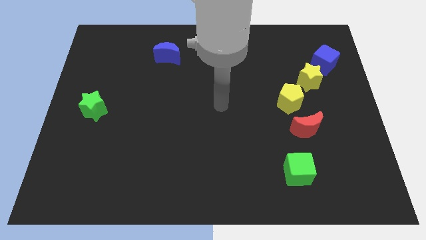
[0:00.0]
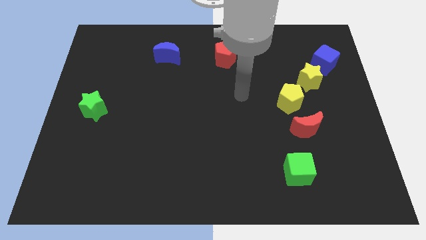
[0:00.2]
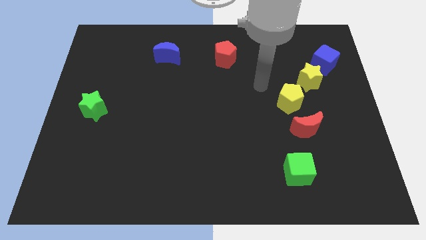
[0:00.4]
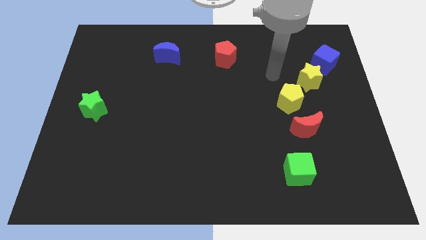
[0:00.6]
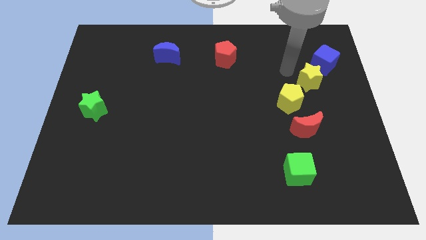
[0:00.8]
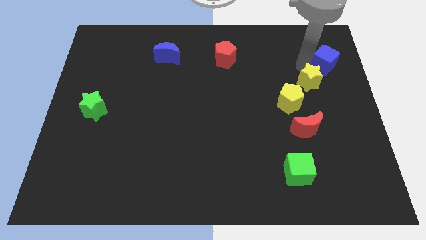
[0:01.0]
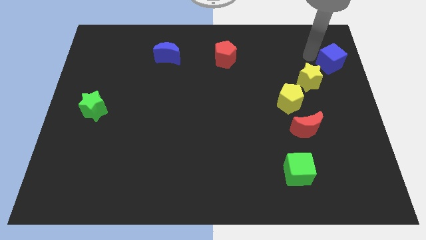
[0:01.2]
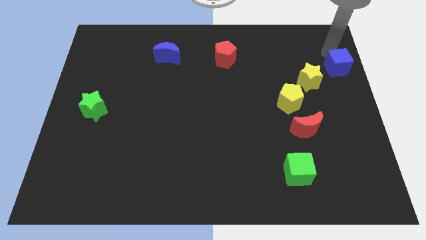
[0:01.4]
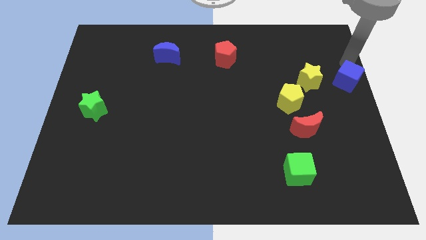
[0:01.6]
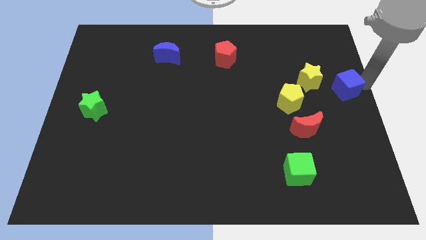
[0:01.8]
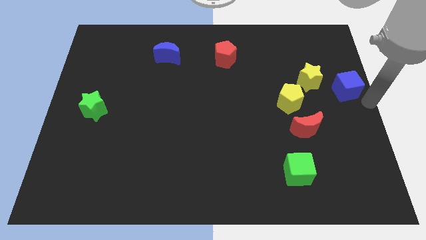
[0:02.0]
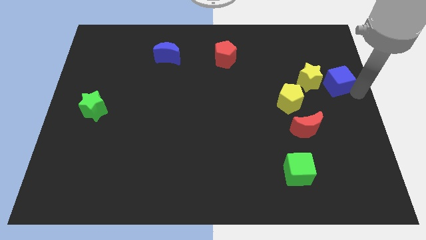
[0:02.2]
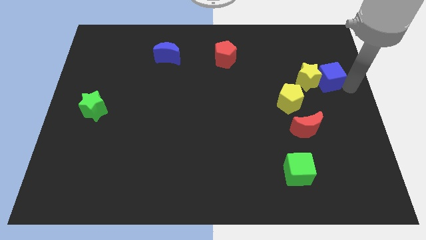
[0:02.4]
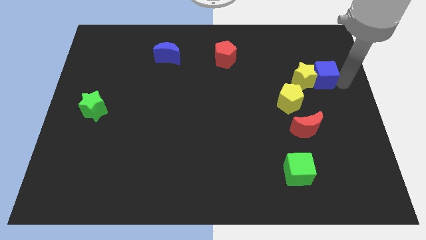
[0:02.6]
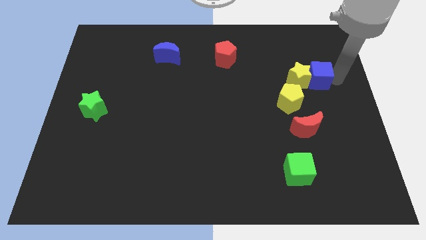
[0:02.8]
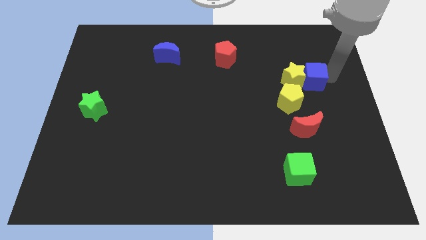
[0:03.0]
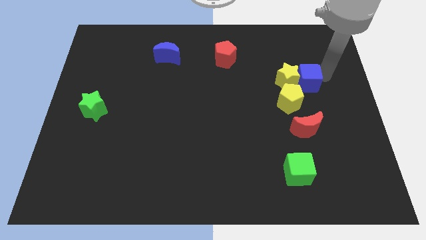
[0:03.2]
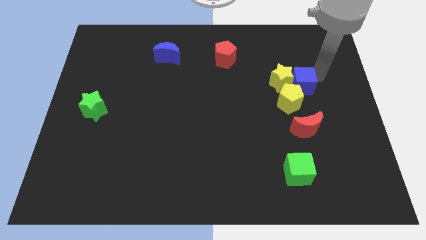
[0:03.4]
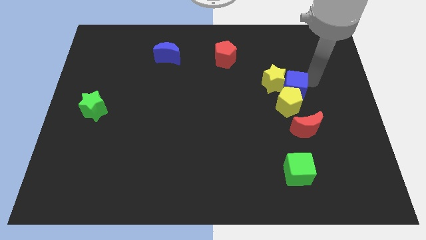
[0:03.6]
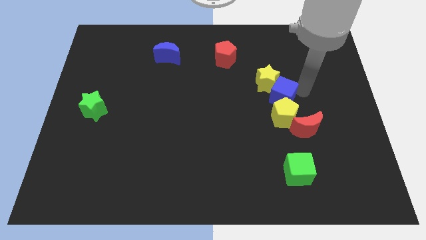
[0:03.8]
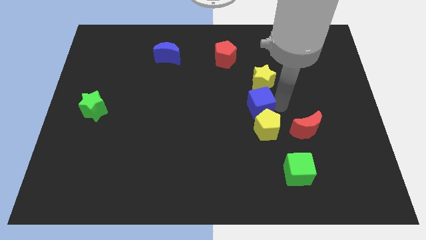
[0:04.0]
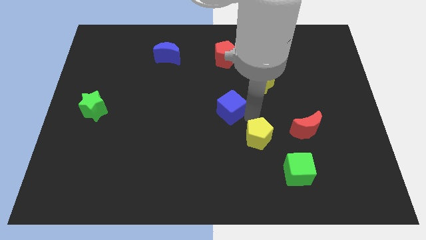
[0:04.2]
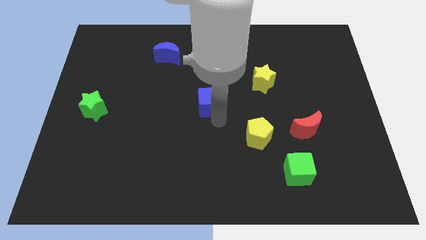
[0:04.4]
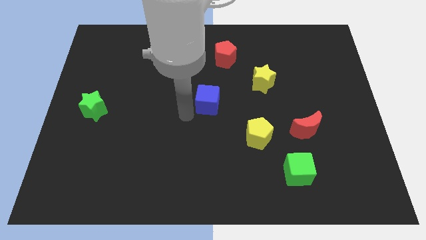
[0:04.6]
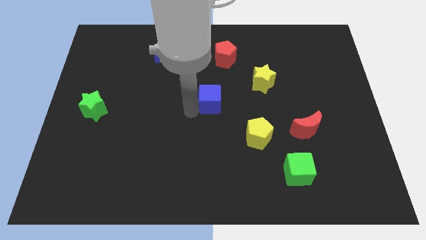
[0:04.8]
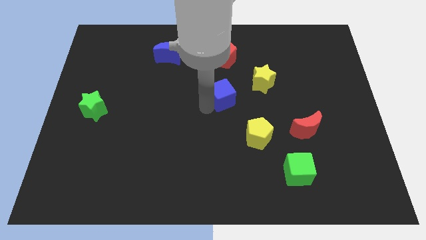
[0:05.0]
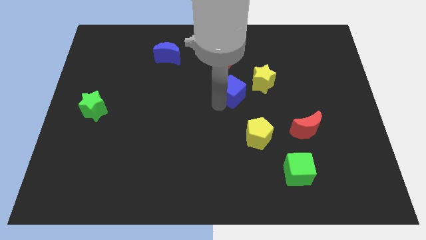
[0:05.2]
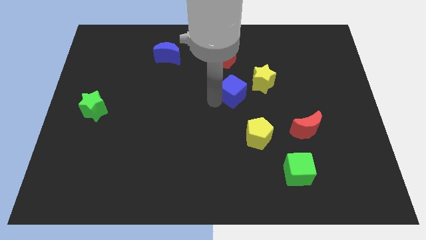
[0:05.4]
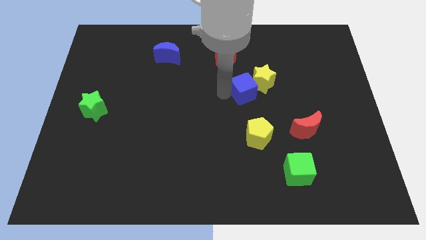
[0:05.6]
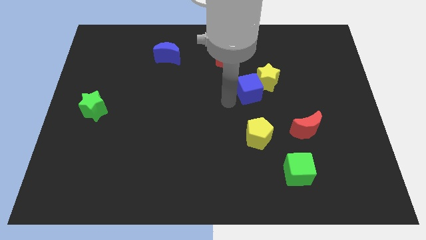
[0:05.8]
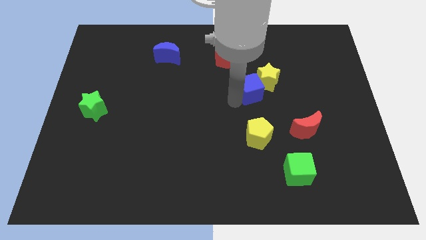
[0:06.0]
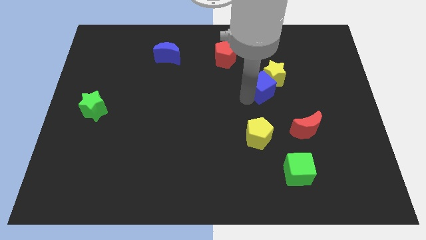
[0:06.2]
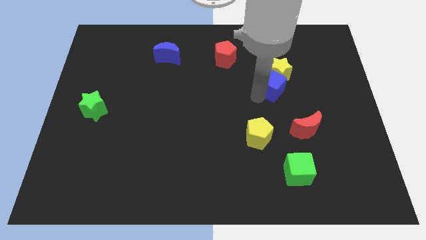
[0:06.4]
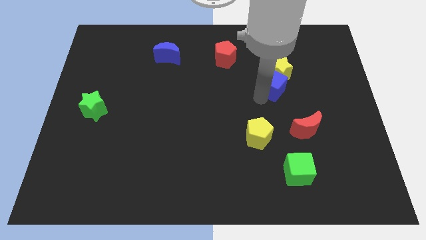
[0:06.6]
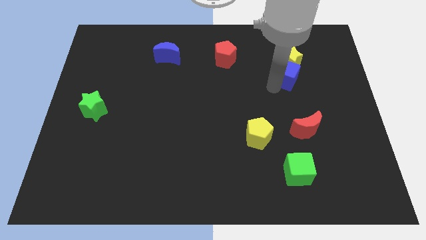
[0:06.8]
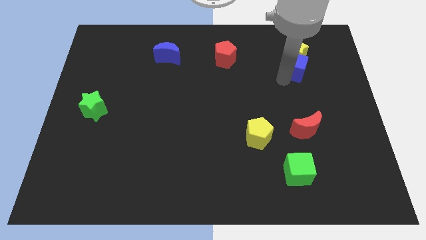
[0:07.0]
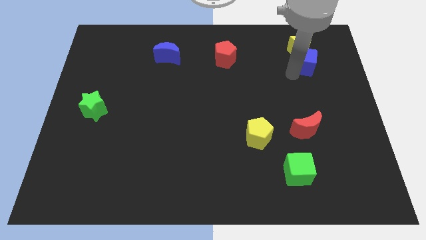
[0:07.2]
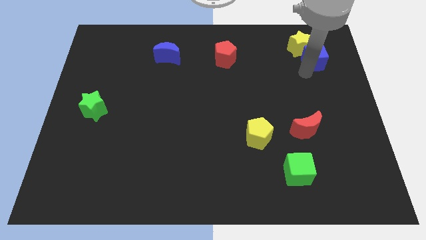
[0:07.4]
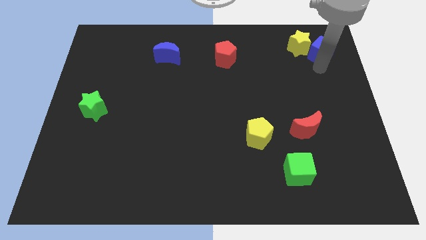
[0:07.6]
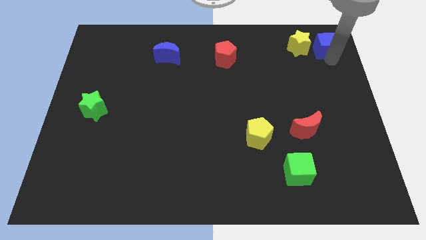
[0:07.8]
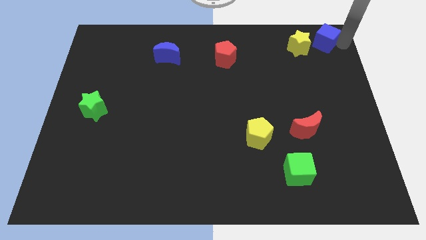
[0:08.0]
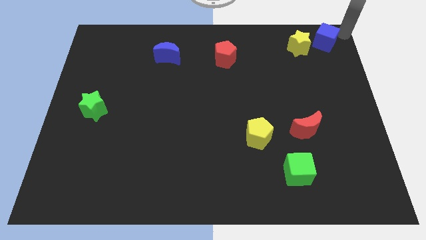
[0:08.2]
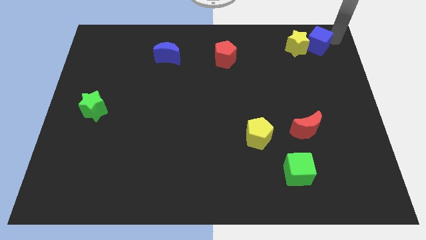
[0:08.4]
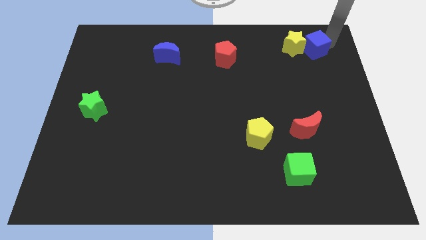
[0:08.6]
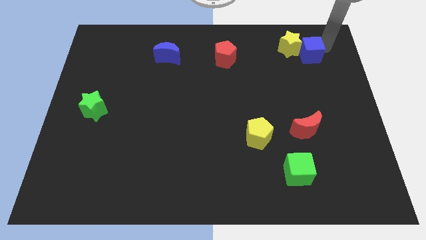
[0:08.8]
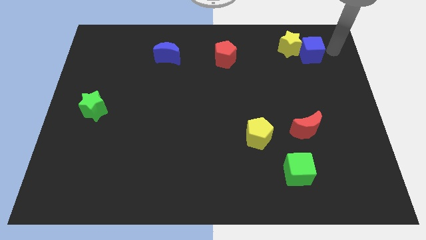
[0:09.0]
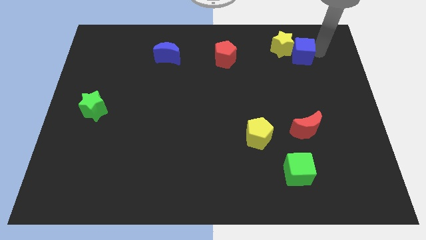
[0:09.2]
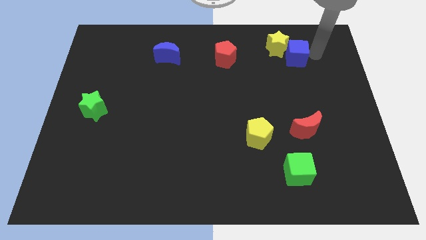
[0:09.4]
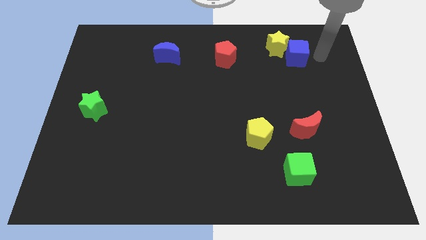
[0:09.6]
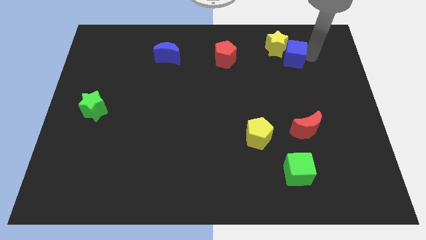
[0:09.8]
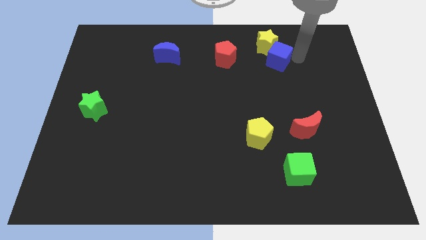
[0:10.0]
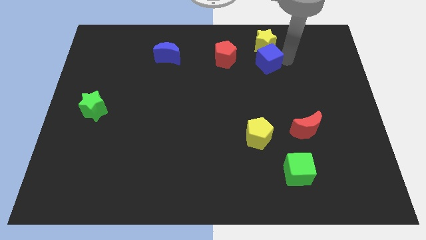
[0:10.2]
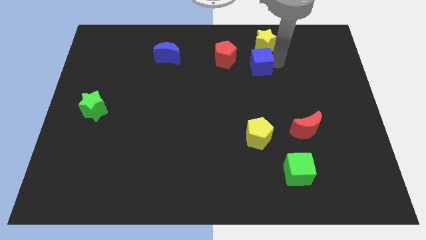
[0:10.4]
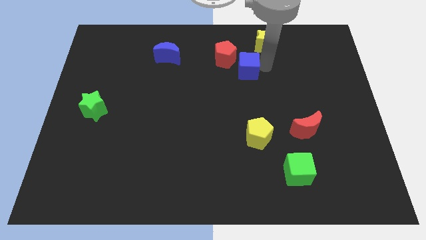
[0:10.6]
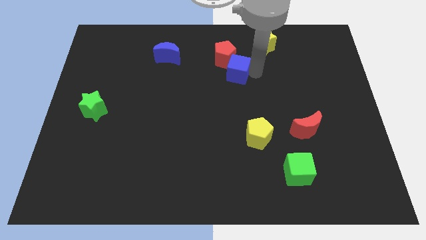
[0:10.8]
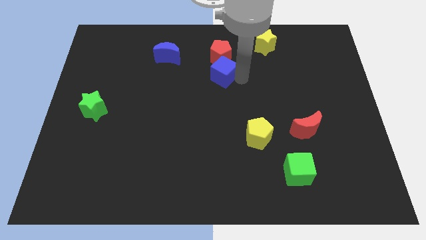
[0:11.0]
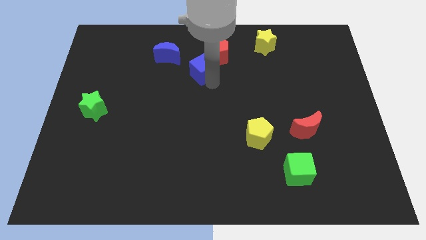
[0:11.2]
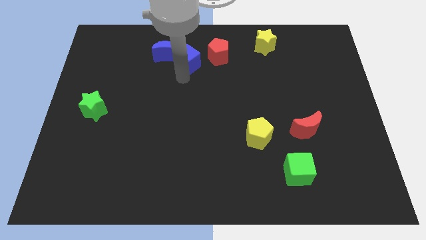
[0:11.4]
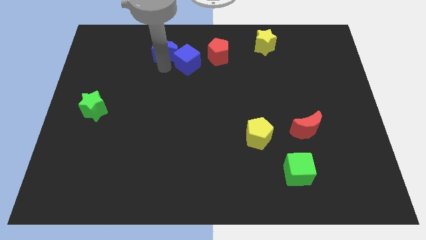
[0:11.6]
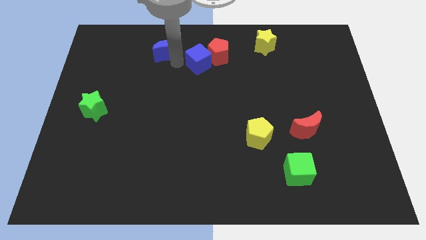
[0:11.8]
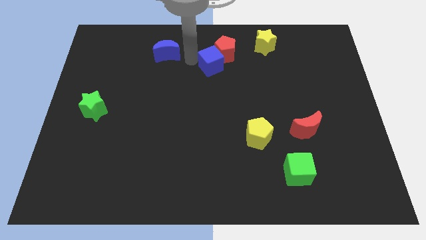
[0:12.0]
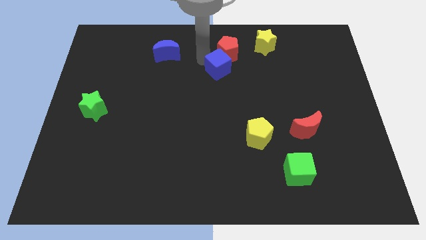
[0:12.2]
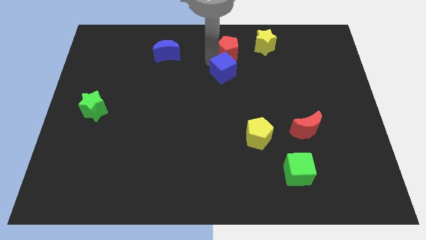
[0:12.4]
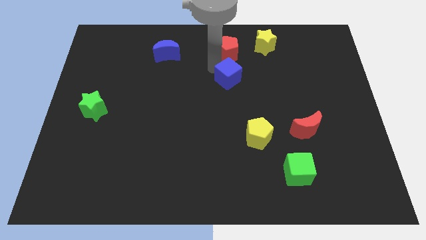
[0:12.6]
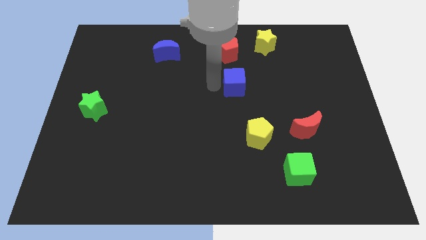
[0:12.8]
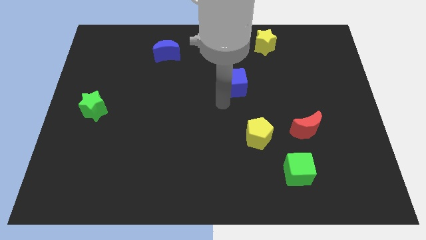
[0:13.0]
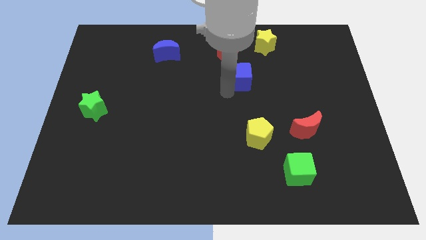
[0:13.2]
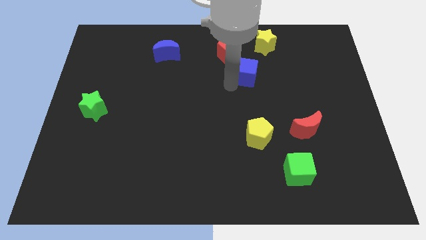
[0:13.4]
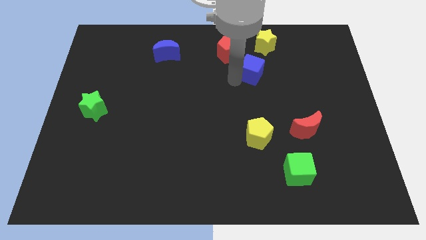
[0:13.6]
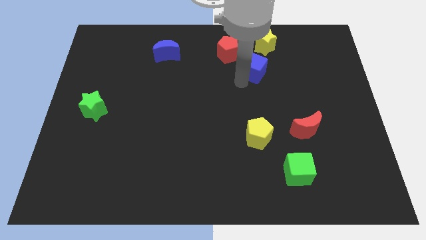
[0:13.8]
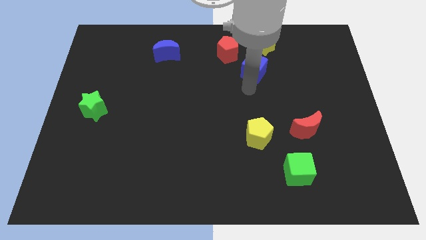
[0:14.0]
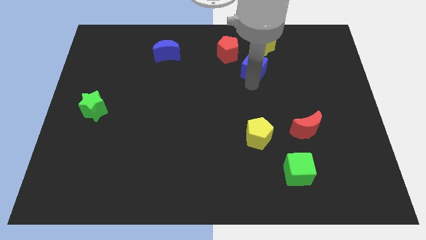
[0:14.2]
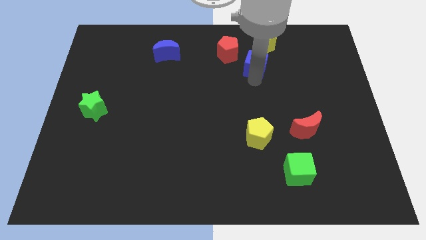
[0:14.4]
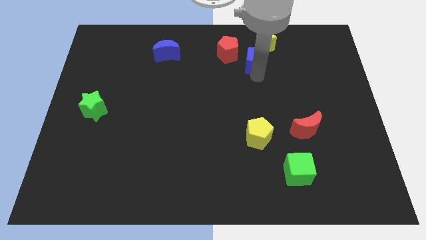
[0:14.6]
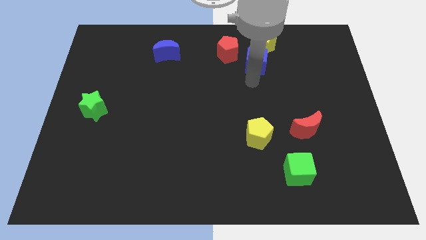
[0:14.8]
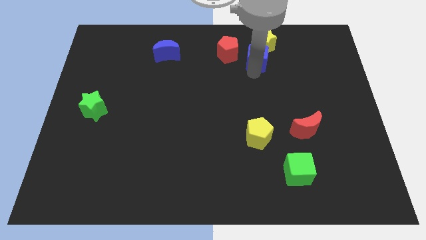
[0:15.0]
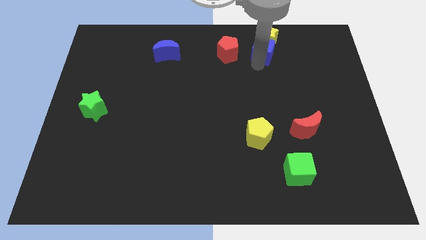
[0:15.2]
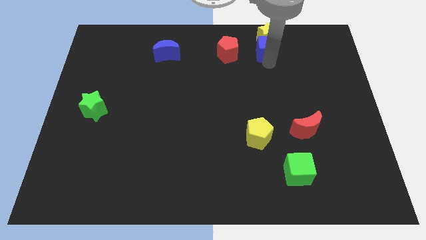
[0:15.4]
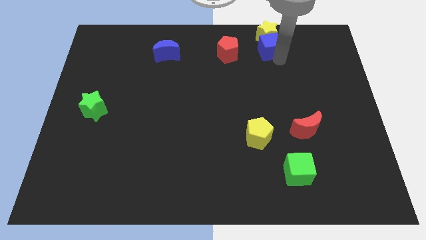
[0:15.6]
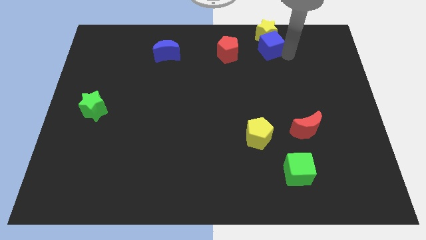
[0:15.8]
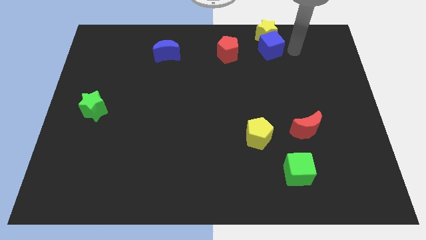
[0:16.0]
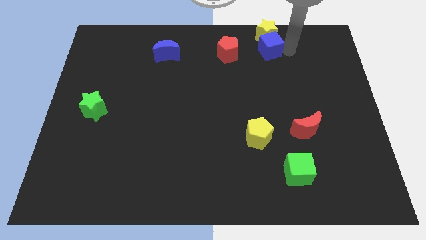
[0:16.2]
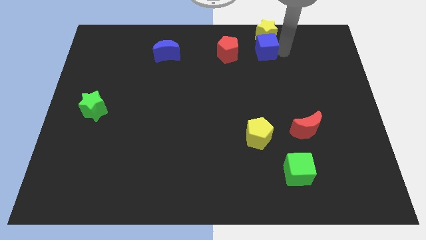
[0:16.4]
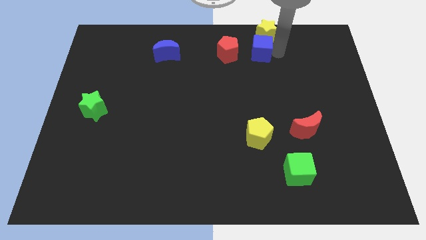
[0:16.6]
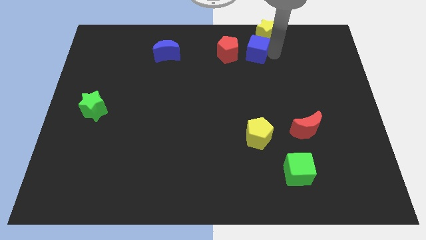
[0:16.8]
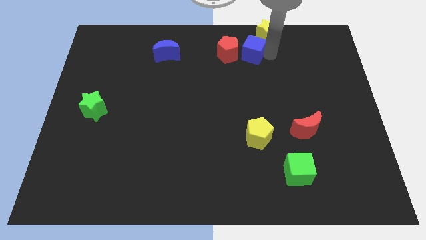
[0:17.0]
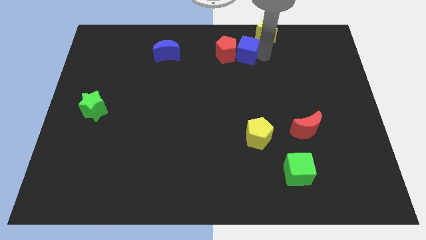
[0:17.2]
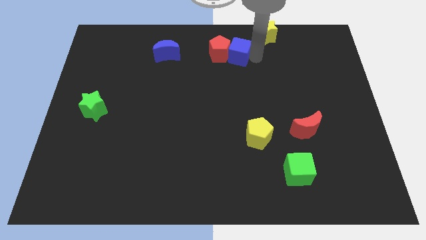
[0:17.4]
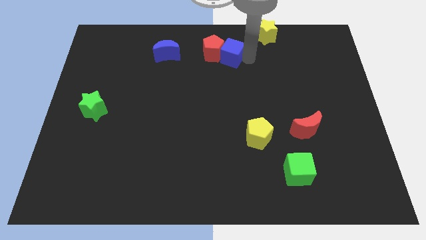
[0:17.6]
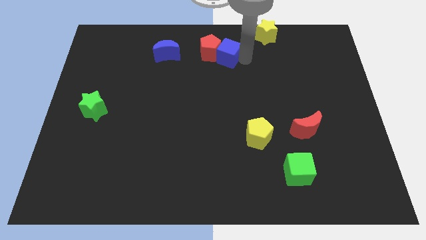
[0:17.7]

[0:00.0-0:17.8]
slide the blue cube to the towards your base
